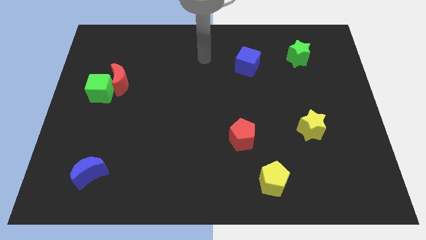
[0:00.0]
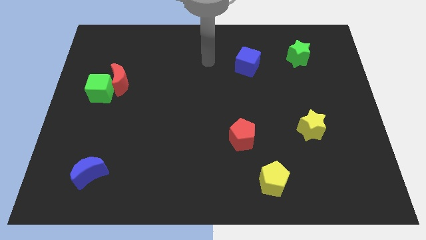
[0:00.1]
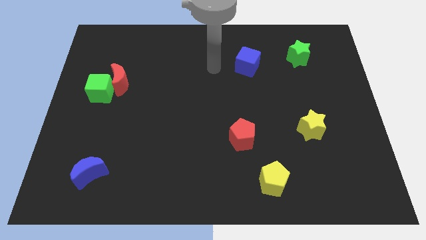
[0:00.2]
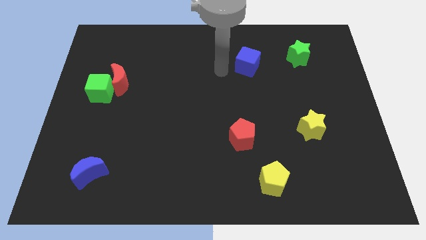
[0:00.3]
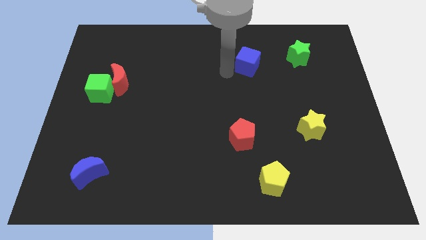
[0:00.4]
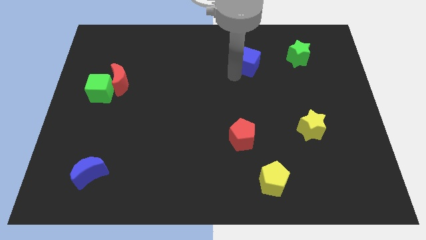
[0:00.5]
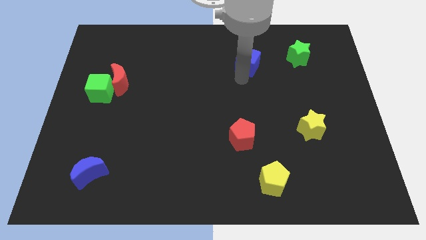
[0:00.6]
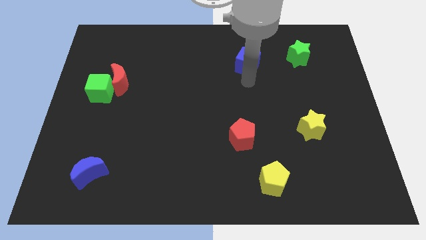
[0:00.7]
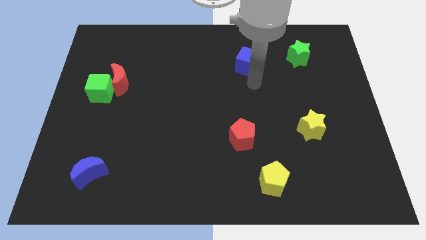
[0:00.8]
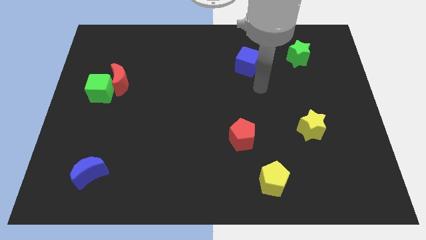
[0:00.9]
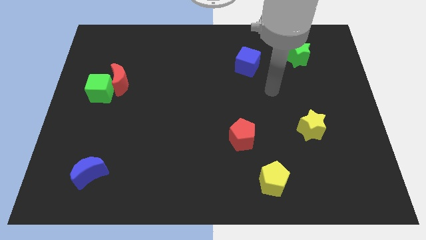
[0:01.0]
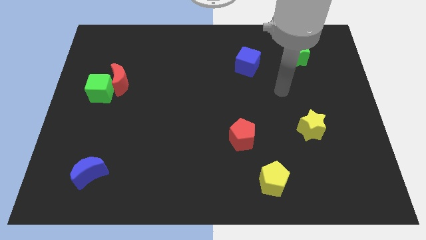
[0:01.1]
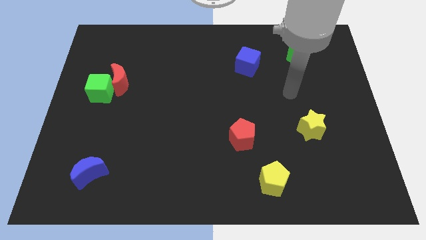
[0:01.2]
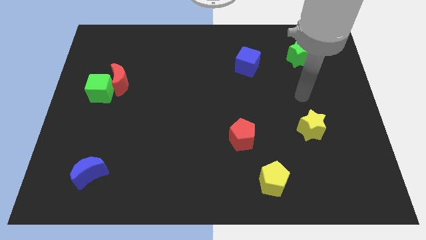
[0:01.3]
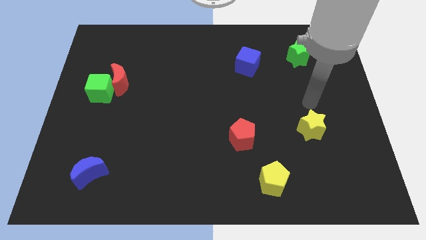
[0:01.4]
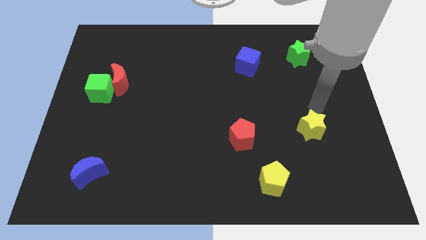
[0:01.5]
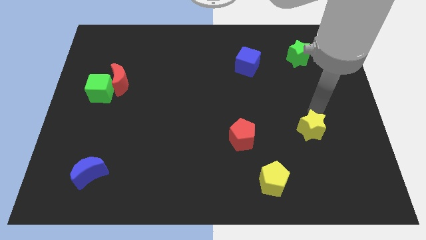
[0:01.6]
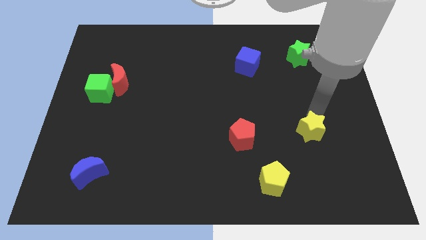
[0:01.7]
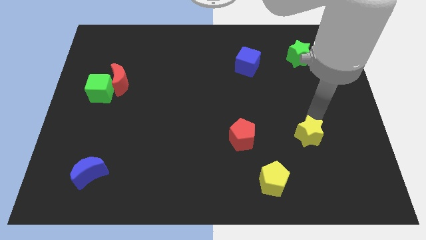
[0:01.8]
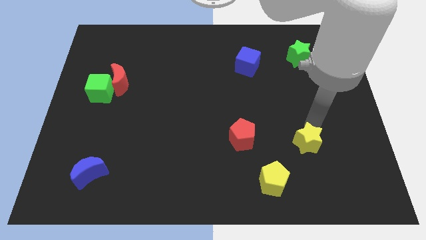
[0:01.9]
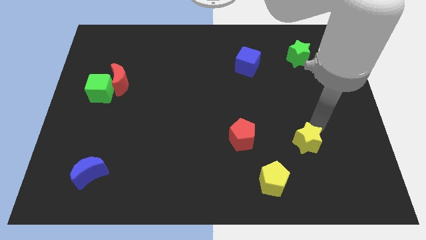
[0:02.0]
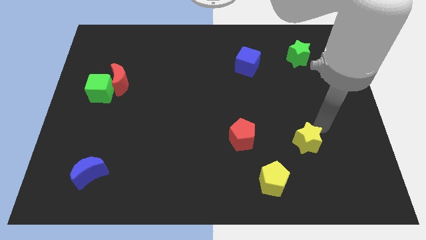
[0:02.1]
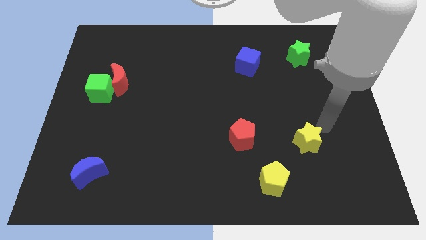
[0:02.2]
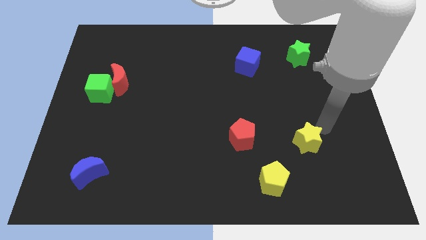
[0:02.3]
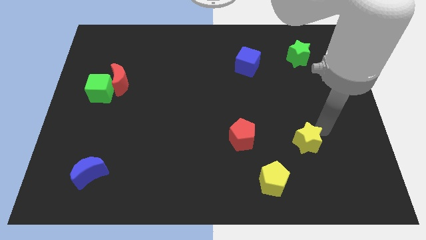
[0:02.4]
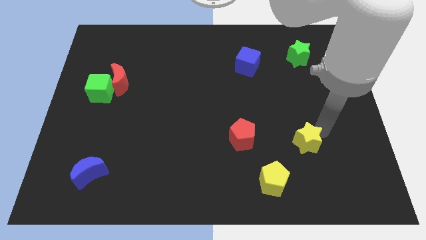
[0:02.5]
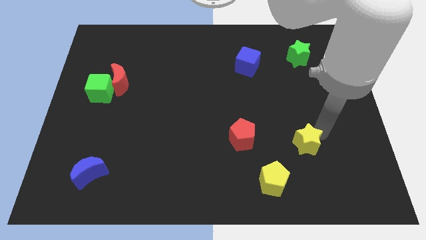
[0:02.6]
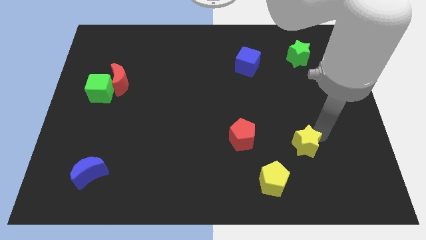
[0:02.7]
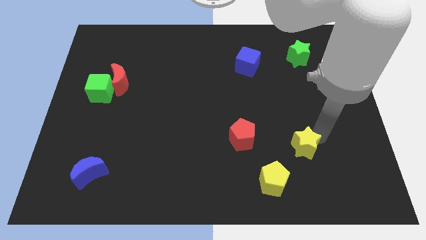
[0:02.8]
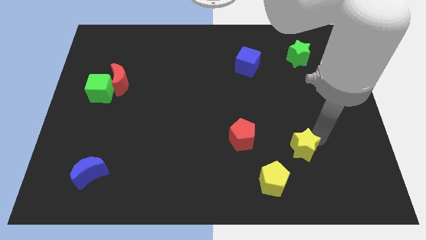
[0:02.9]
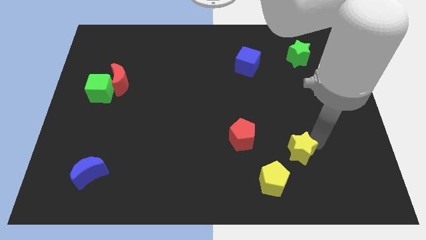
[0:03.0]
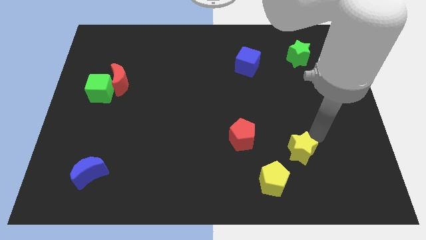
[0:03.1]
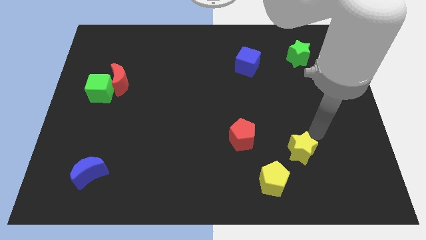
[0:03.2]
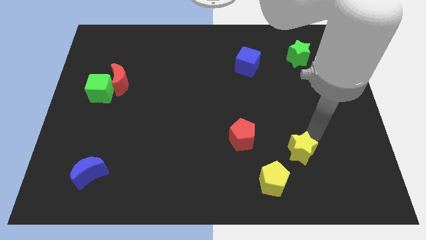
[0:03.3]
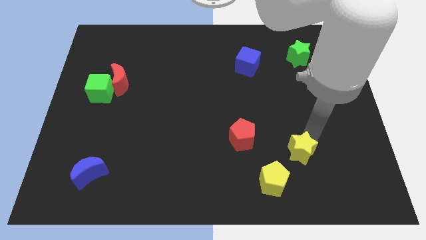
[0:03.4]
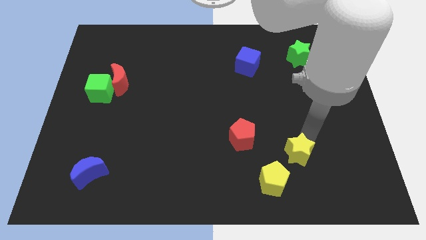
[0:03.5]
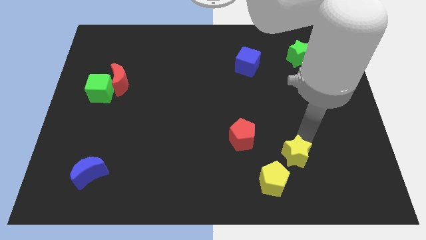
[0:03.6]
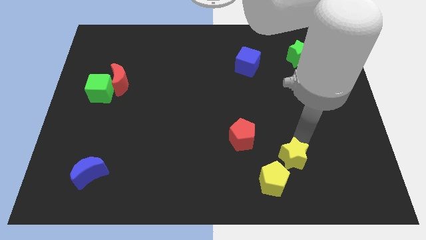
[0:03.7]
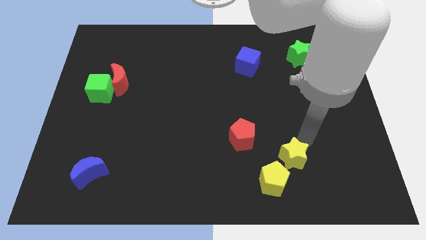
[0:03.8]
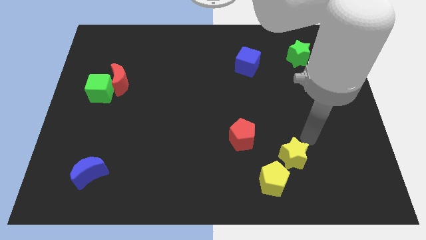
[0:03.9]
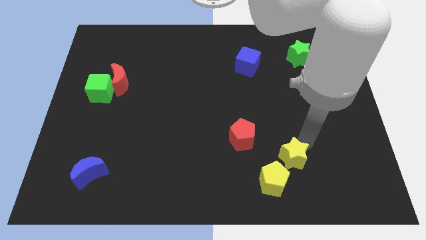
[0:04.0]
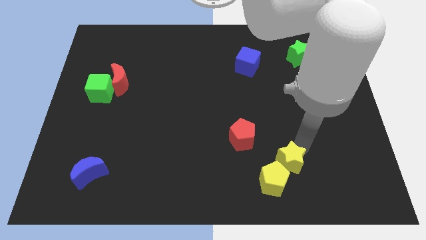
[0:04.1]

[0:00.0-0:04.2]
put the yellow star close to the yellow pentagon

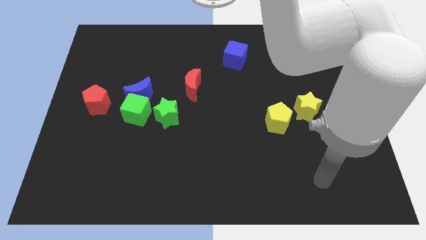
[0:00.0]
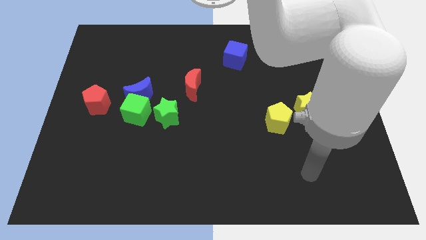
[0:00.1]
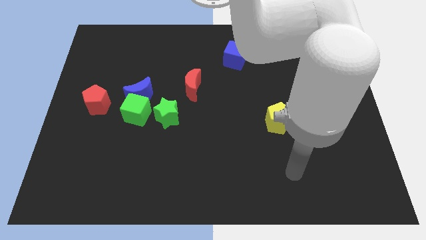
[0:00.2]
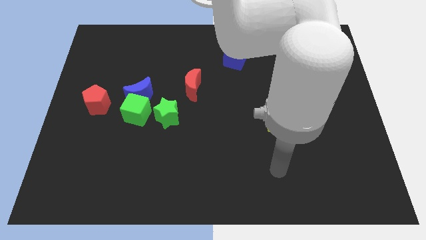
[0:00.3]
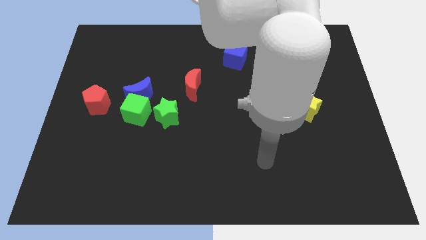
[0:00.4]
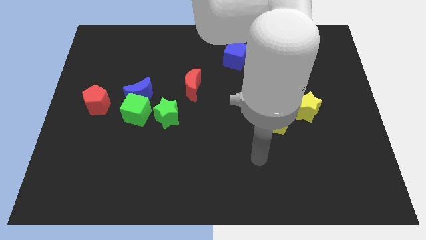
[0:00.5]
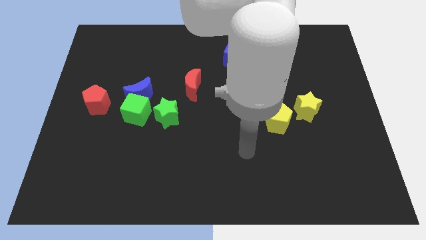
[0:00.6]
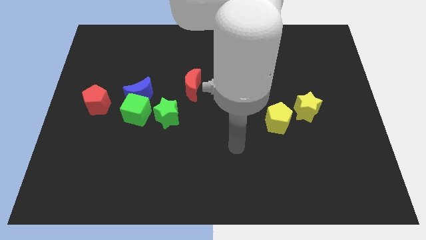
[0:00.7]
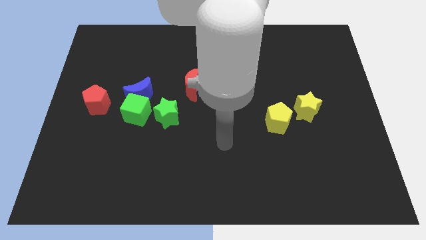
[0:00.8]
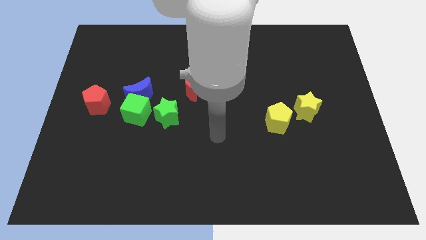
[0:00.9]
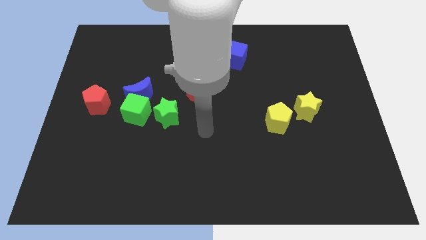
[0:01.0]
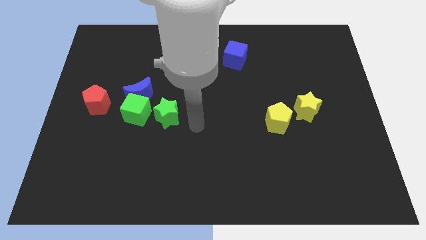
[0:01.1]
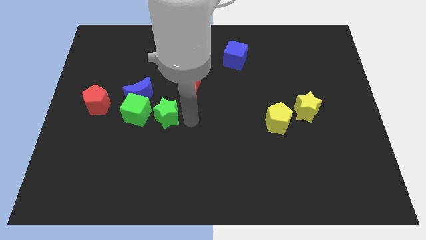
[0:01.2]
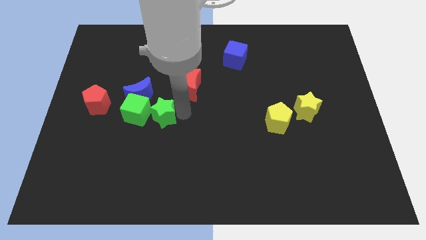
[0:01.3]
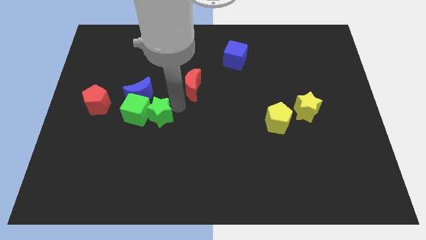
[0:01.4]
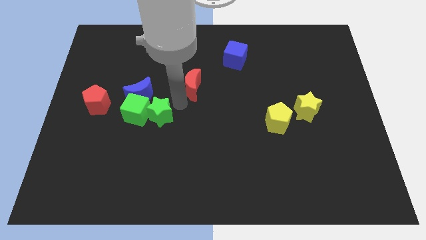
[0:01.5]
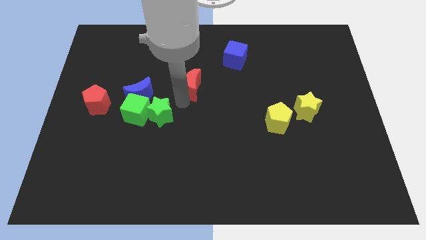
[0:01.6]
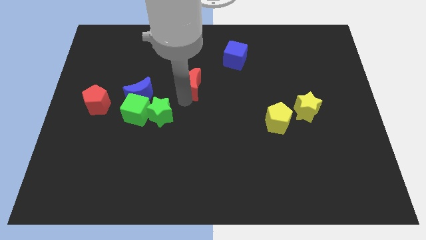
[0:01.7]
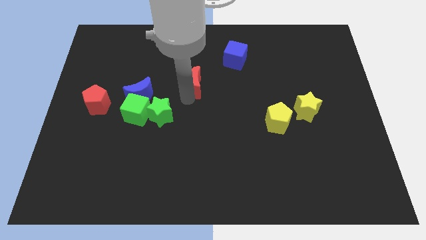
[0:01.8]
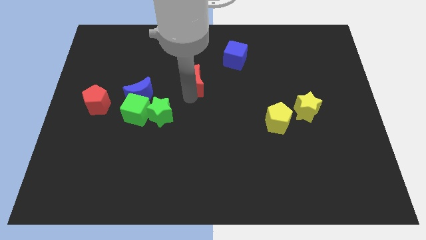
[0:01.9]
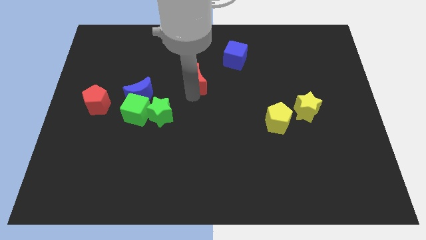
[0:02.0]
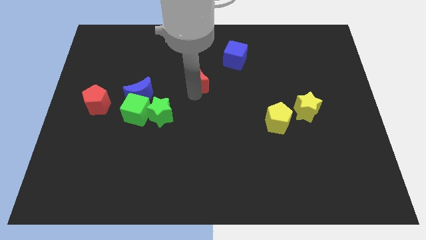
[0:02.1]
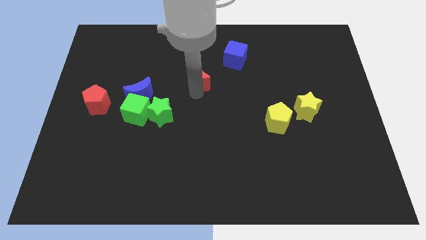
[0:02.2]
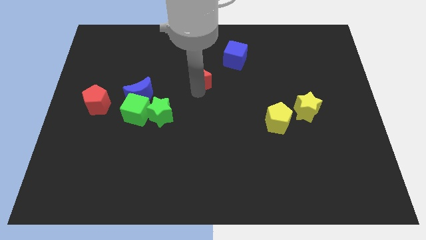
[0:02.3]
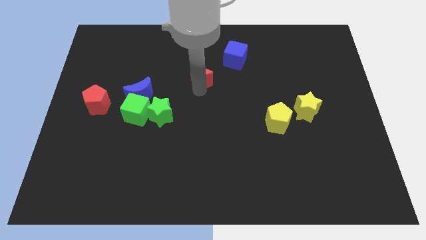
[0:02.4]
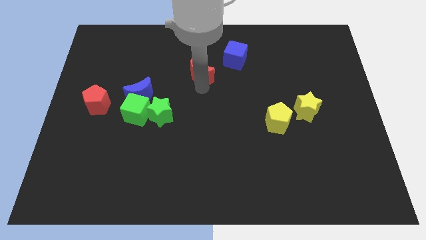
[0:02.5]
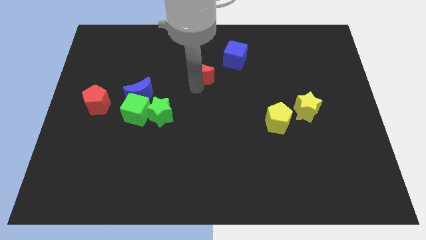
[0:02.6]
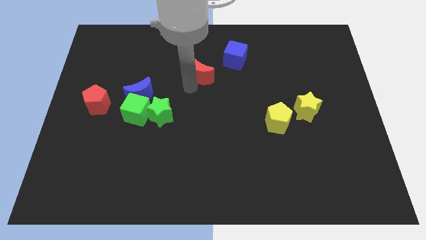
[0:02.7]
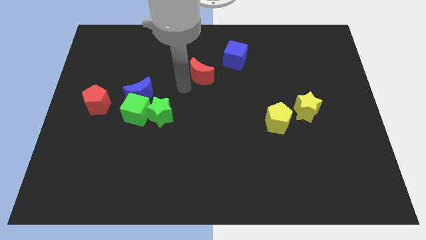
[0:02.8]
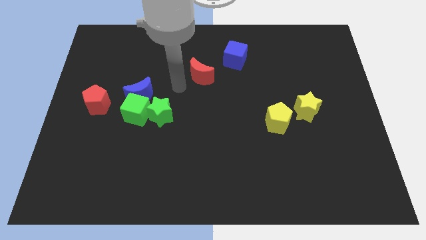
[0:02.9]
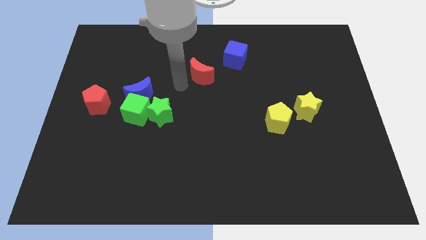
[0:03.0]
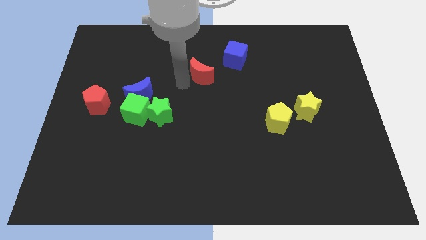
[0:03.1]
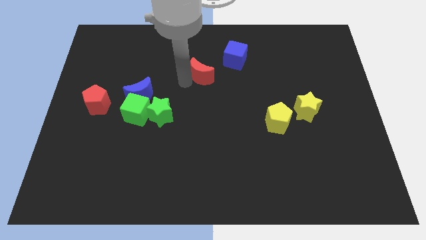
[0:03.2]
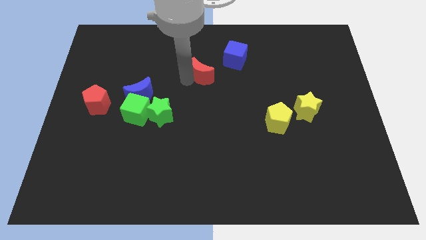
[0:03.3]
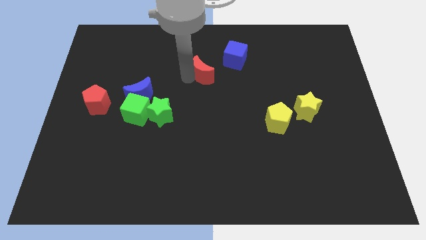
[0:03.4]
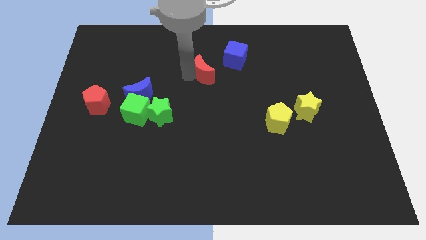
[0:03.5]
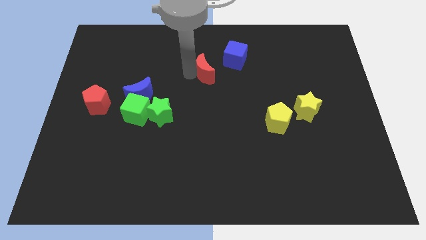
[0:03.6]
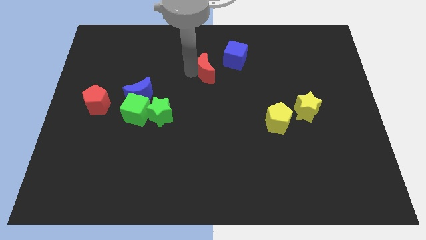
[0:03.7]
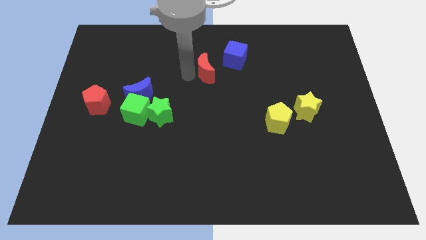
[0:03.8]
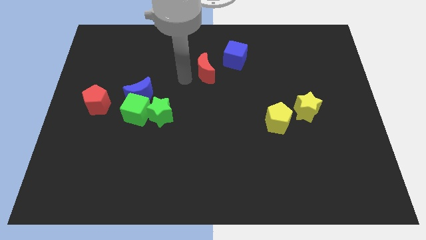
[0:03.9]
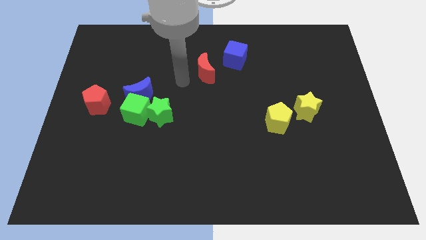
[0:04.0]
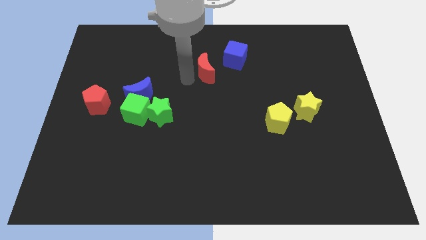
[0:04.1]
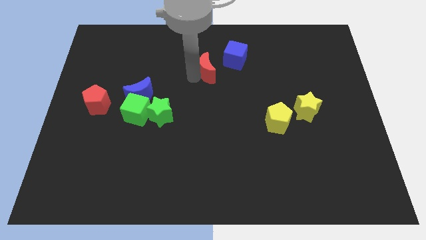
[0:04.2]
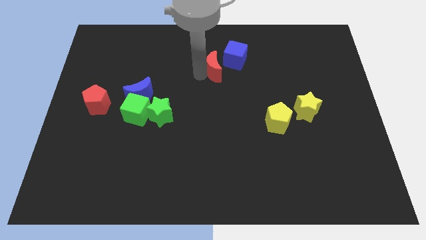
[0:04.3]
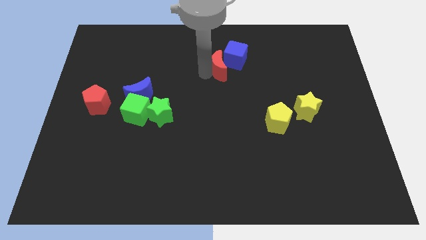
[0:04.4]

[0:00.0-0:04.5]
move the red moon to the blue cube
